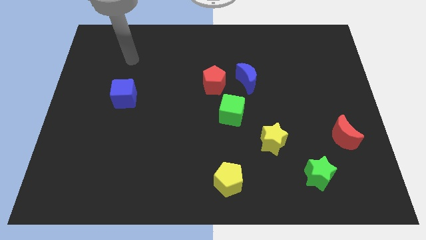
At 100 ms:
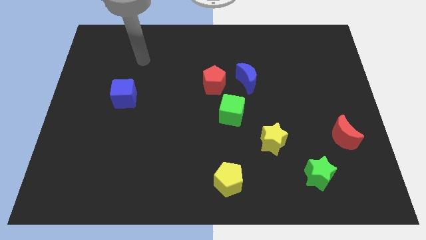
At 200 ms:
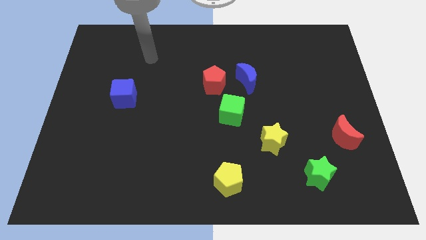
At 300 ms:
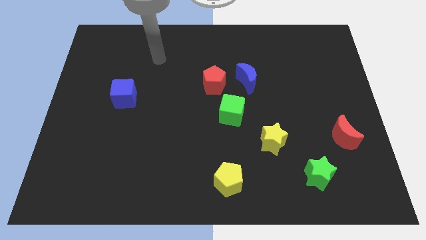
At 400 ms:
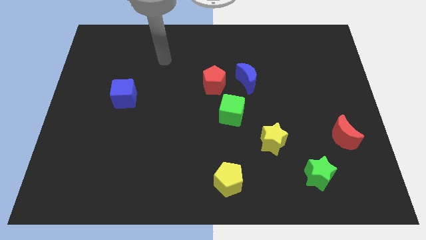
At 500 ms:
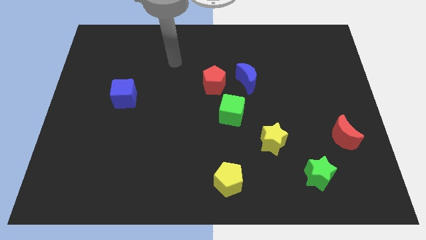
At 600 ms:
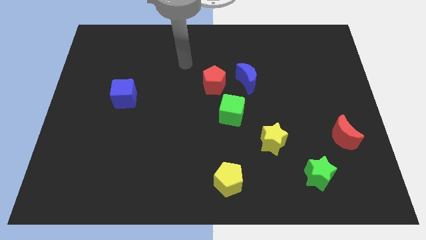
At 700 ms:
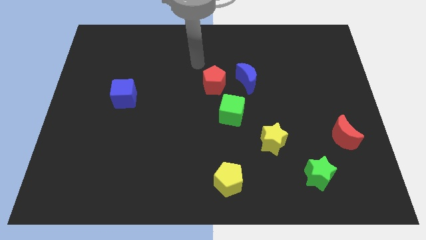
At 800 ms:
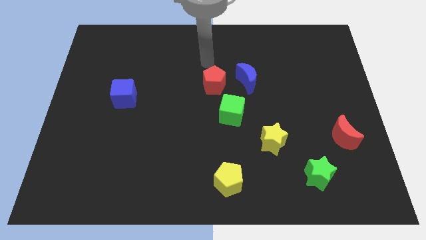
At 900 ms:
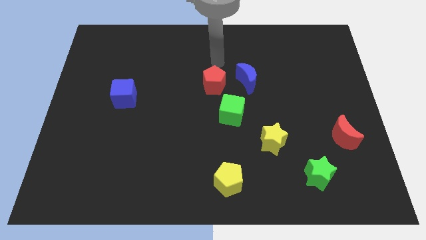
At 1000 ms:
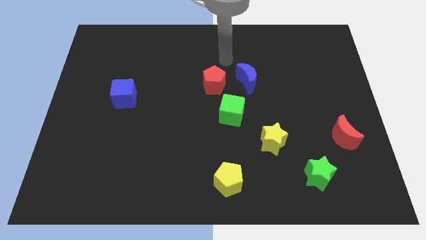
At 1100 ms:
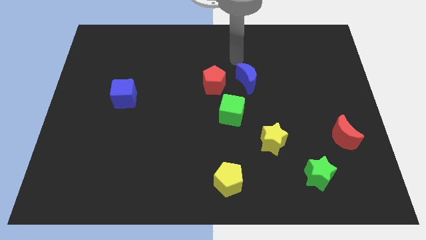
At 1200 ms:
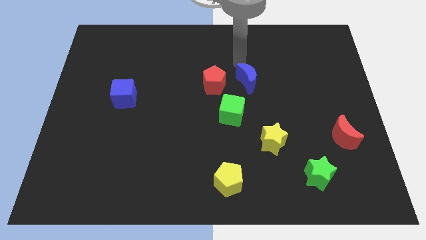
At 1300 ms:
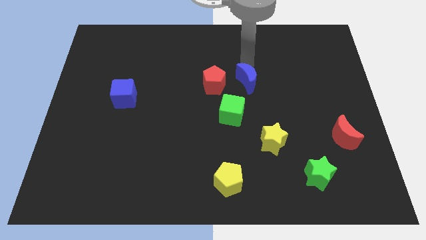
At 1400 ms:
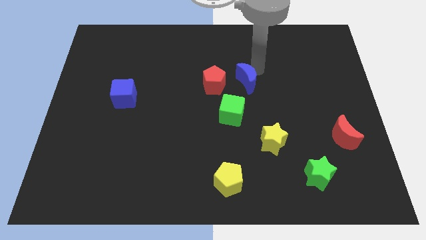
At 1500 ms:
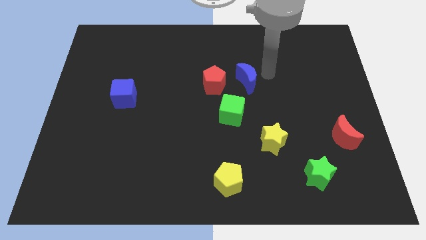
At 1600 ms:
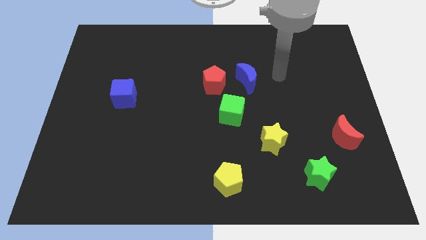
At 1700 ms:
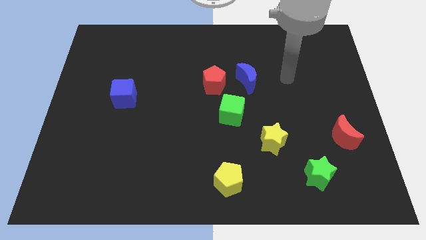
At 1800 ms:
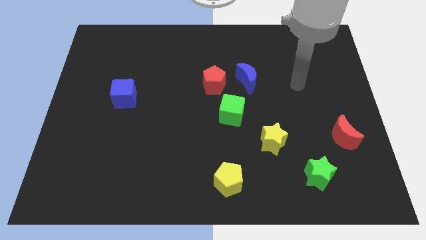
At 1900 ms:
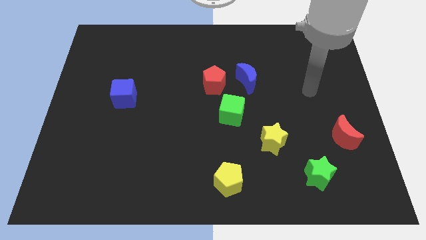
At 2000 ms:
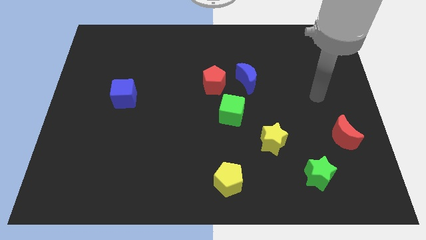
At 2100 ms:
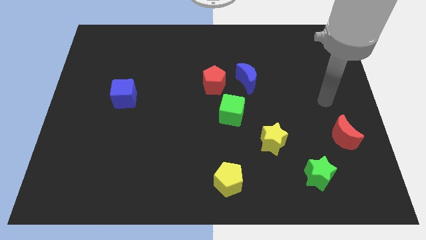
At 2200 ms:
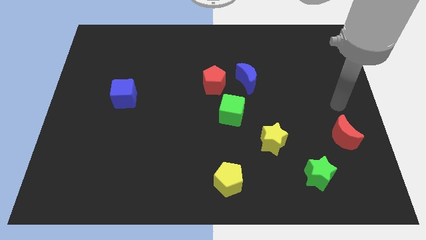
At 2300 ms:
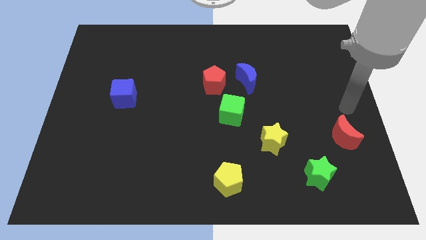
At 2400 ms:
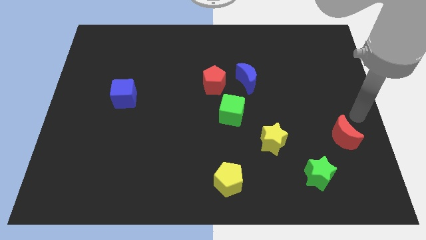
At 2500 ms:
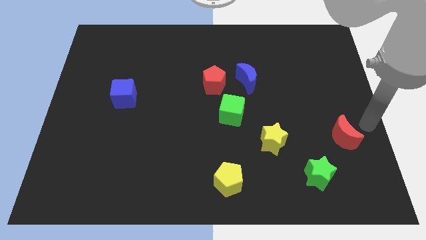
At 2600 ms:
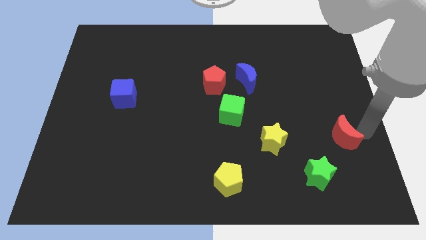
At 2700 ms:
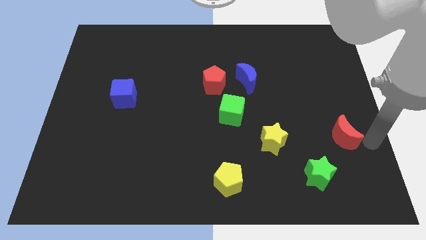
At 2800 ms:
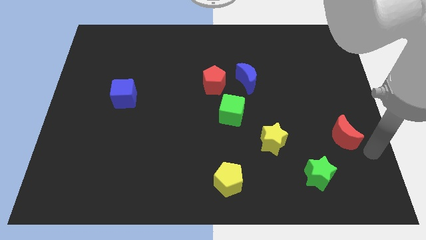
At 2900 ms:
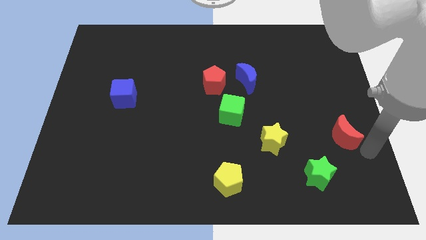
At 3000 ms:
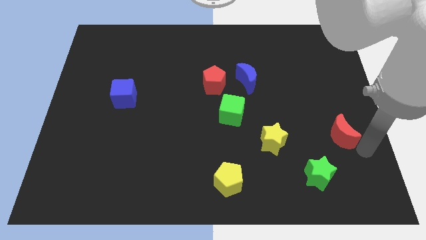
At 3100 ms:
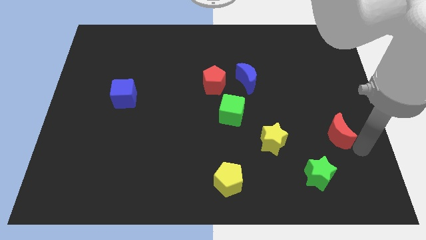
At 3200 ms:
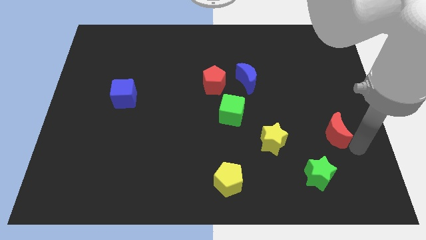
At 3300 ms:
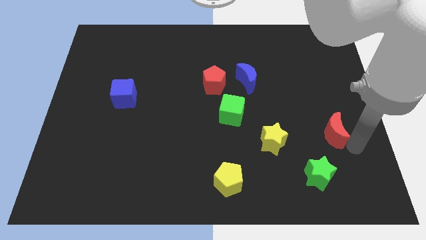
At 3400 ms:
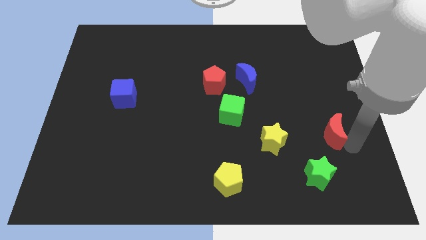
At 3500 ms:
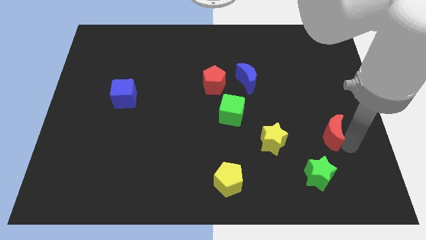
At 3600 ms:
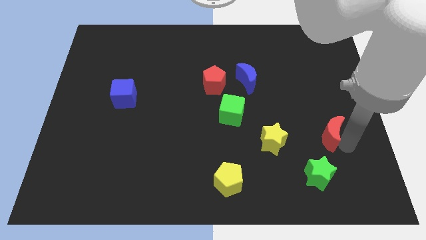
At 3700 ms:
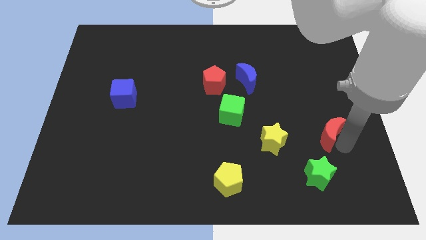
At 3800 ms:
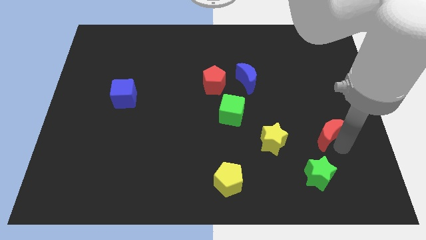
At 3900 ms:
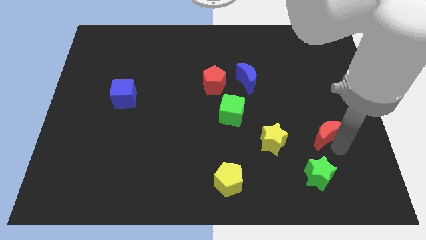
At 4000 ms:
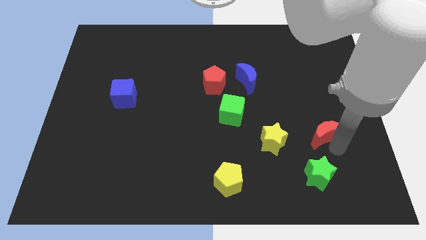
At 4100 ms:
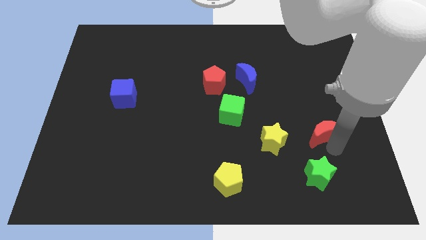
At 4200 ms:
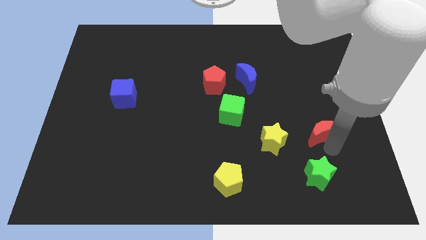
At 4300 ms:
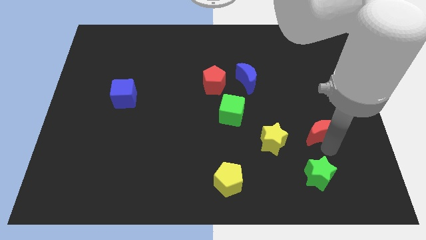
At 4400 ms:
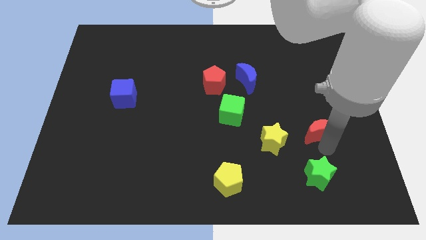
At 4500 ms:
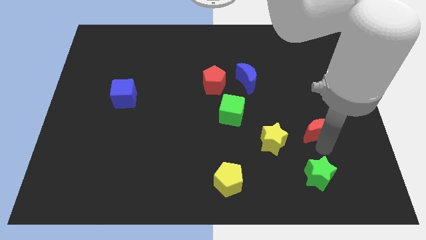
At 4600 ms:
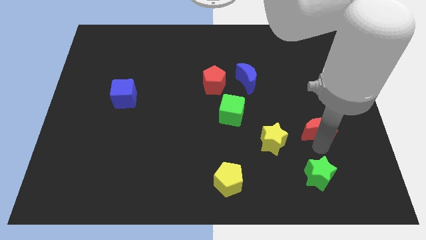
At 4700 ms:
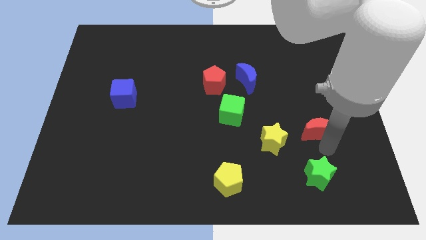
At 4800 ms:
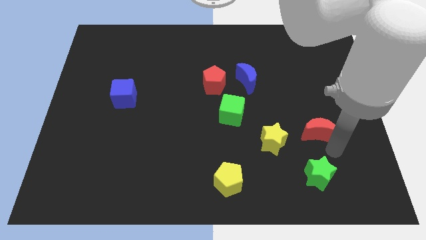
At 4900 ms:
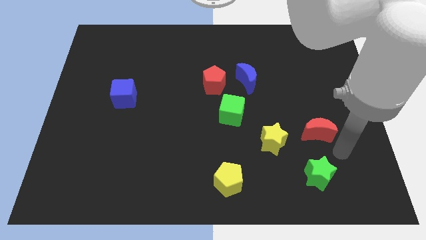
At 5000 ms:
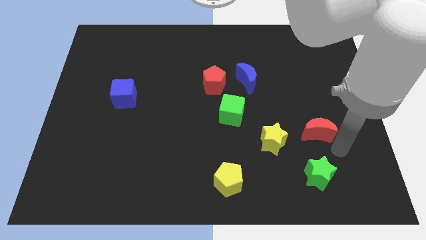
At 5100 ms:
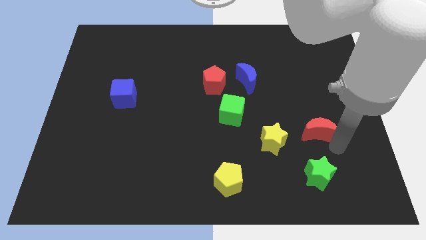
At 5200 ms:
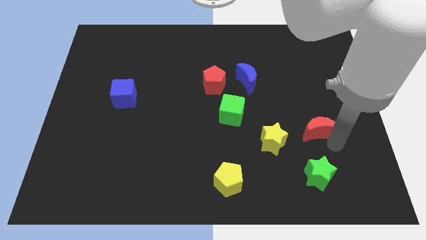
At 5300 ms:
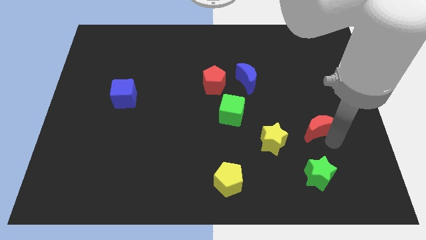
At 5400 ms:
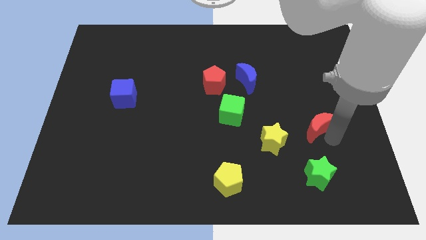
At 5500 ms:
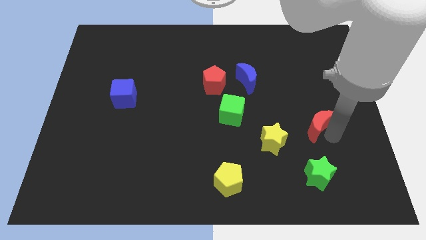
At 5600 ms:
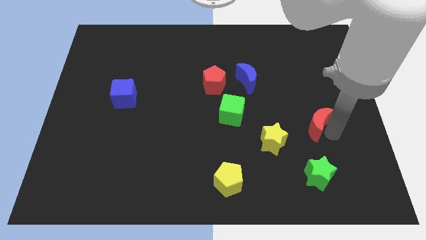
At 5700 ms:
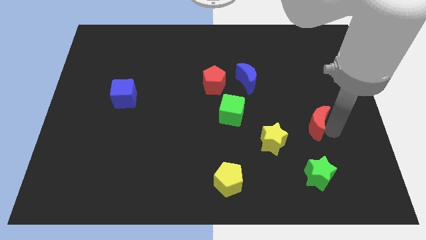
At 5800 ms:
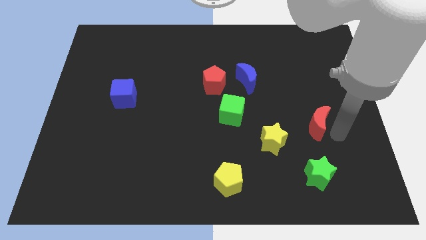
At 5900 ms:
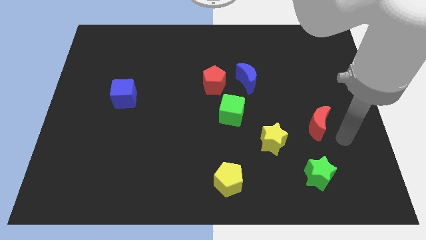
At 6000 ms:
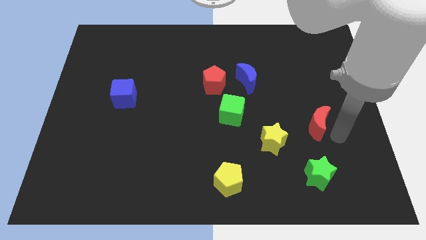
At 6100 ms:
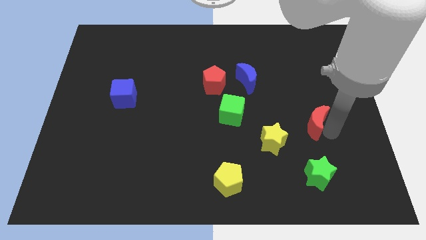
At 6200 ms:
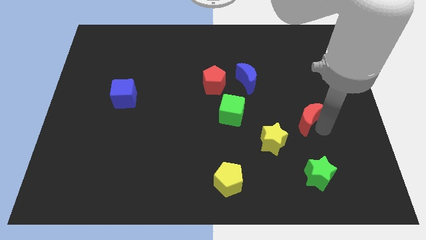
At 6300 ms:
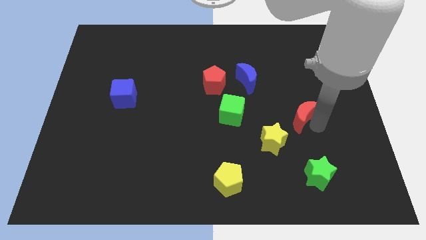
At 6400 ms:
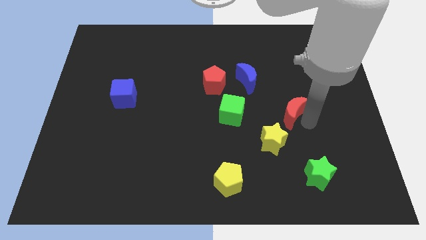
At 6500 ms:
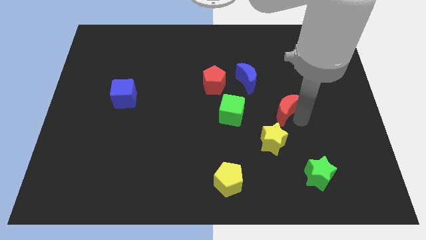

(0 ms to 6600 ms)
slide the red moon diagonally down and to the right of the blue moon

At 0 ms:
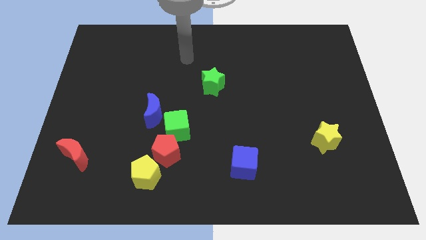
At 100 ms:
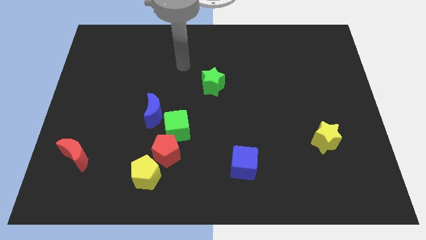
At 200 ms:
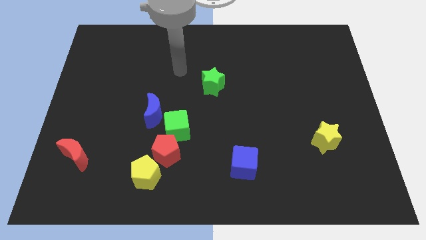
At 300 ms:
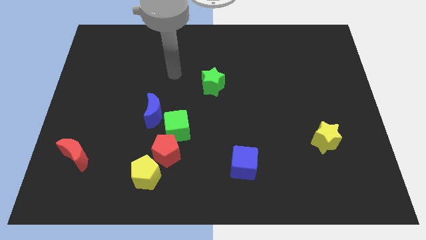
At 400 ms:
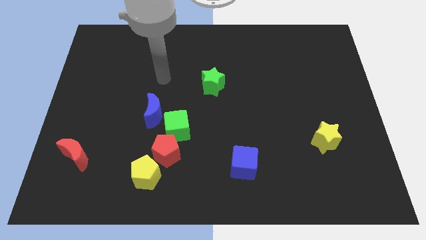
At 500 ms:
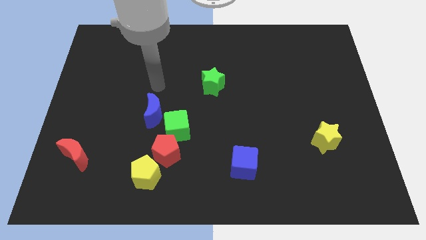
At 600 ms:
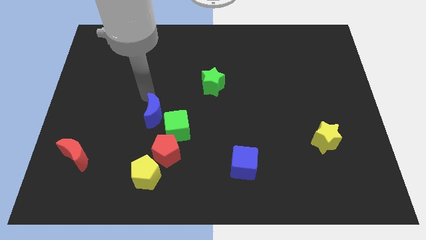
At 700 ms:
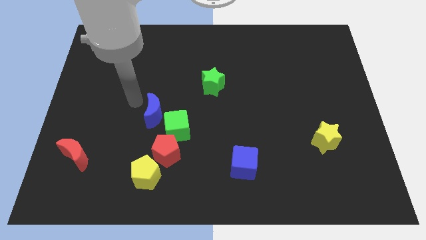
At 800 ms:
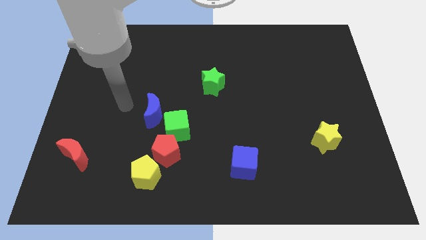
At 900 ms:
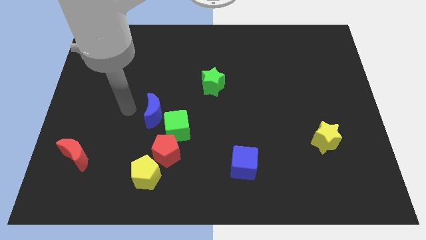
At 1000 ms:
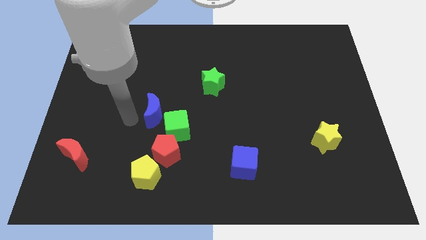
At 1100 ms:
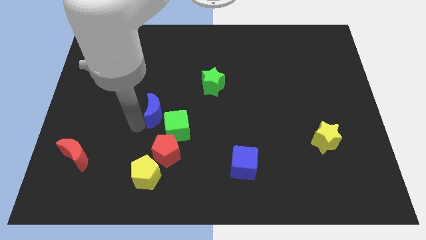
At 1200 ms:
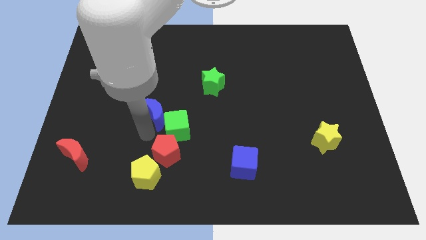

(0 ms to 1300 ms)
slide the red pentagon diagonally down and to the right of the blue moon
